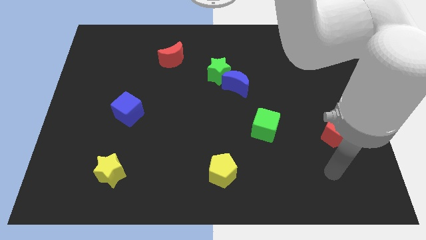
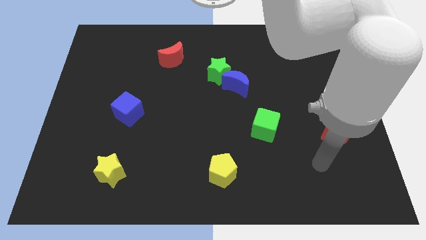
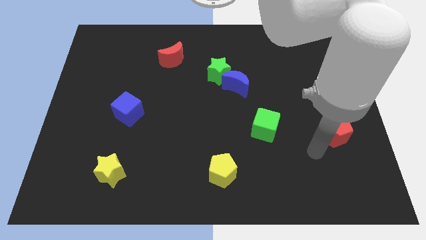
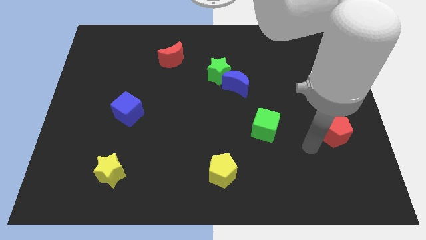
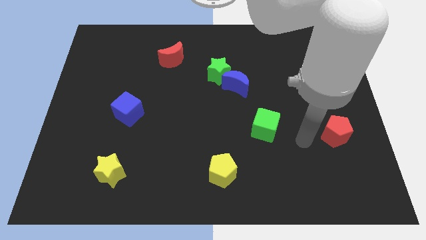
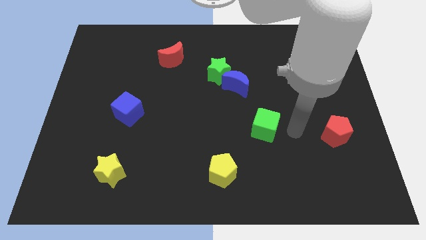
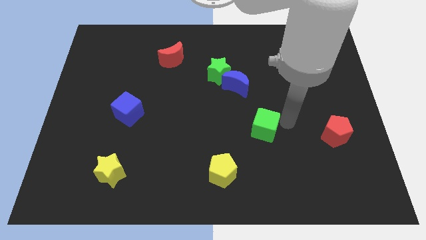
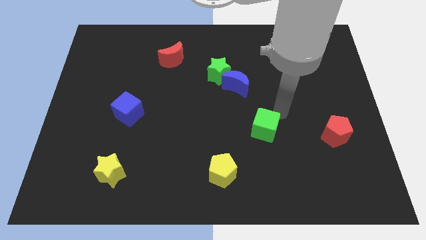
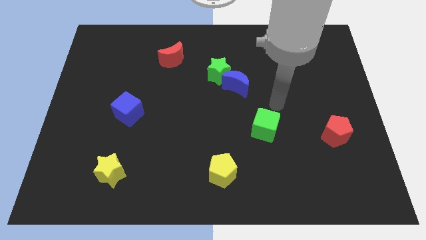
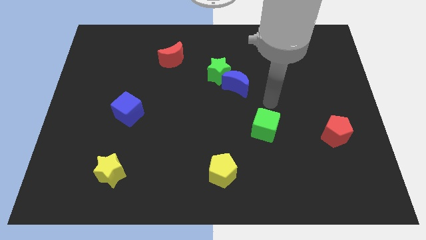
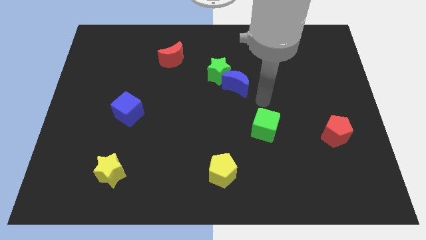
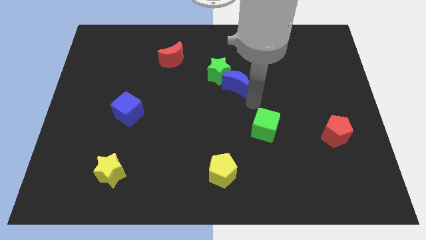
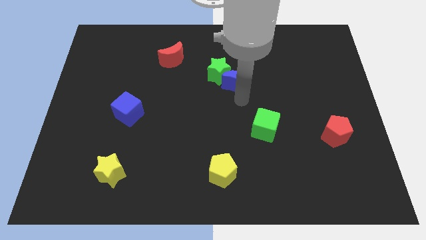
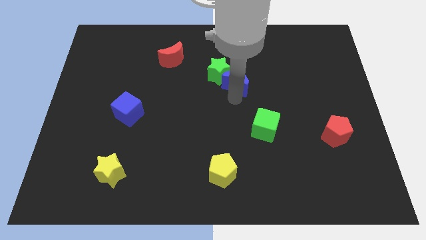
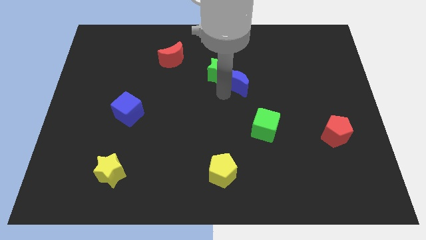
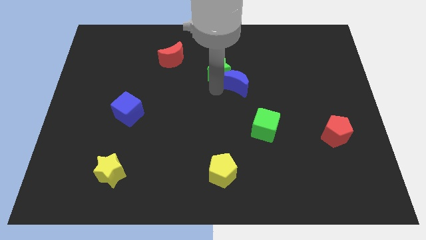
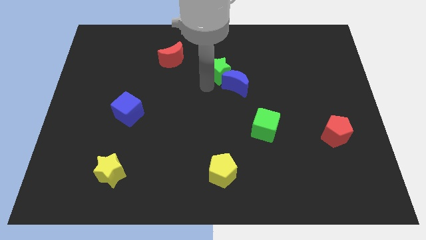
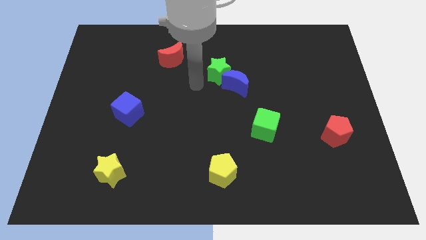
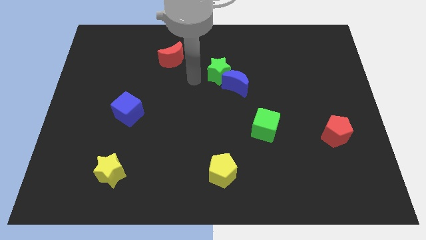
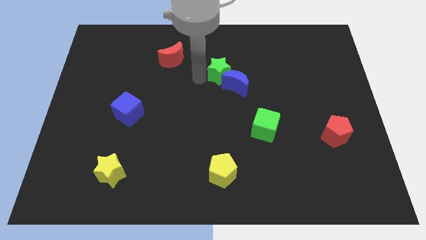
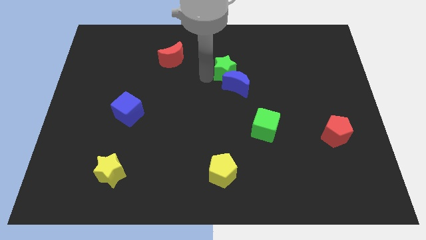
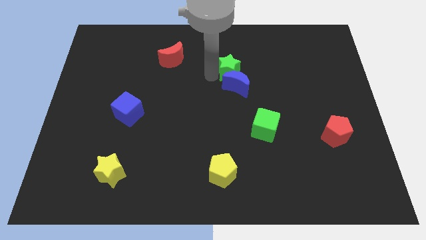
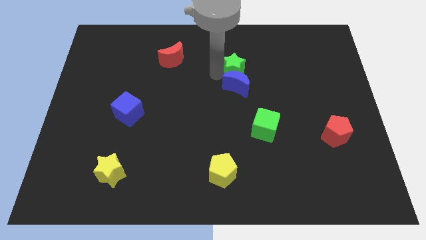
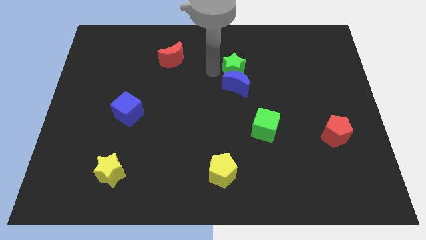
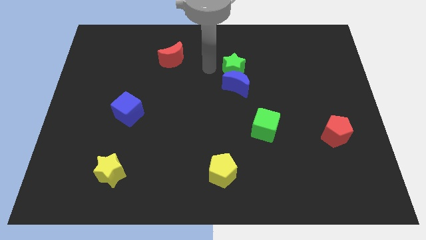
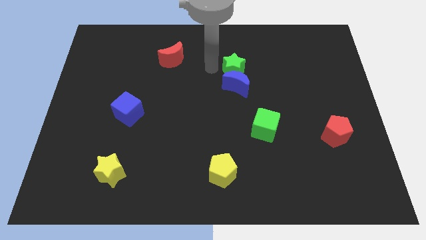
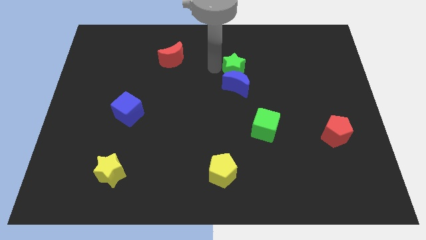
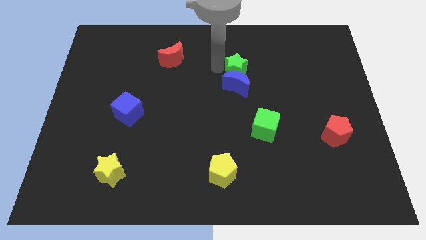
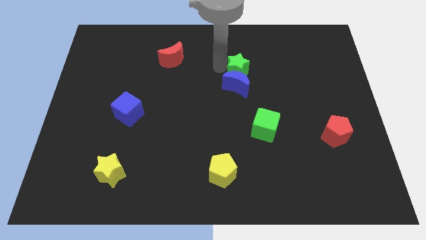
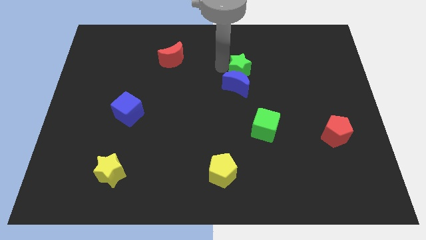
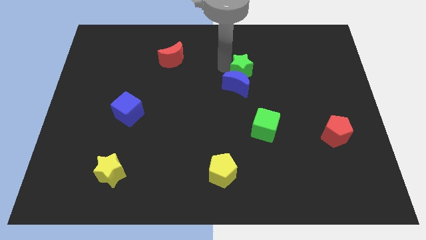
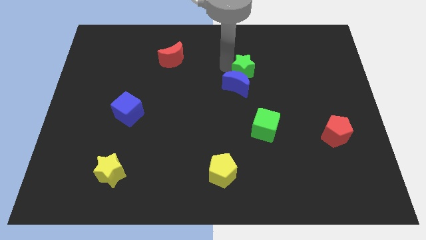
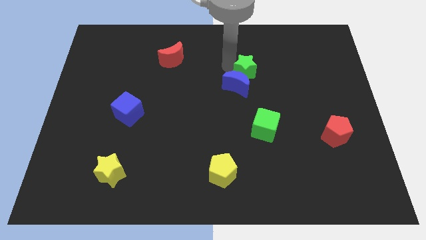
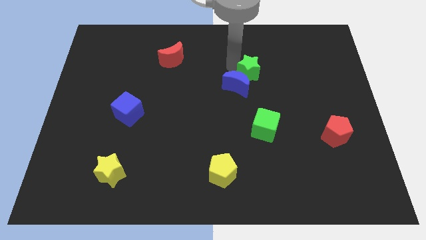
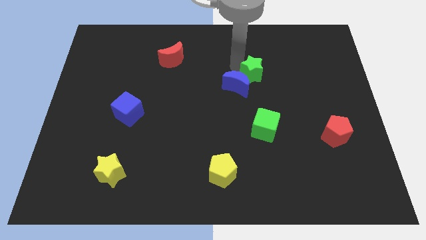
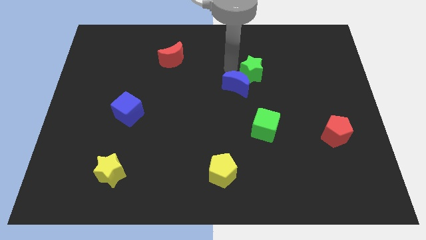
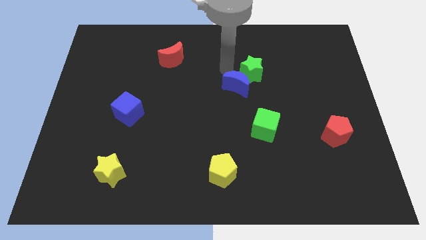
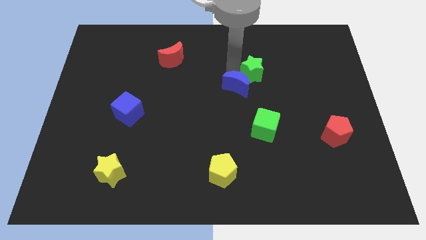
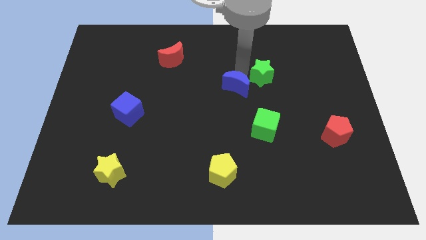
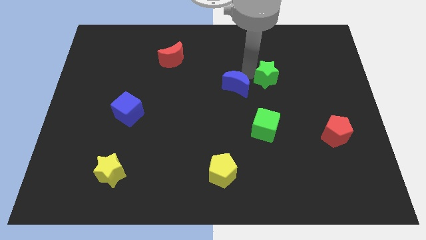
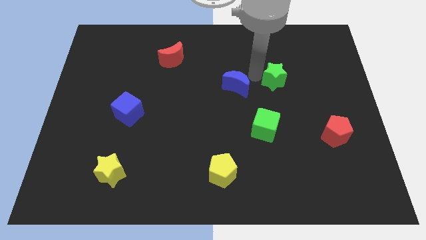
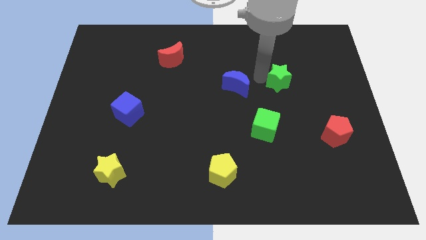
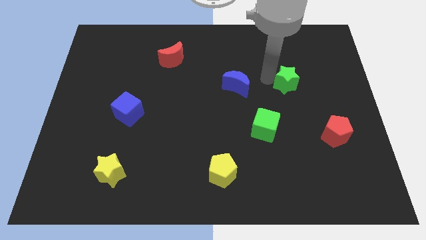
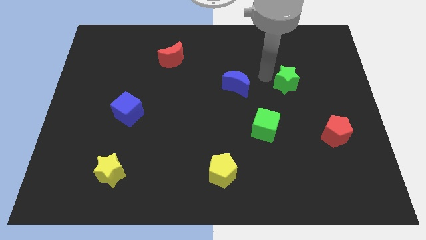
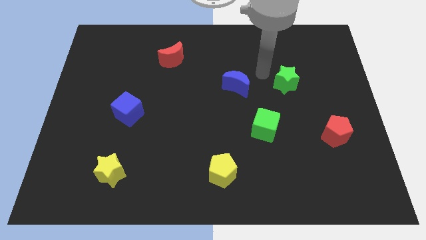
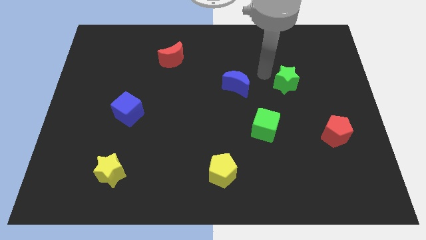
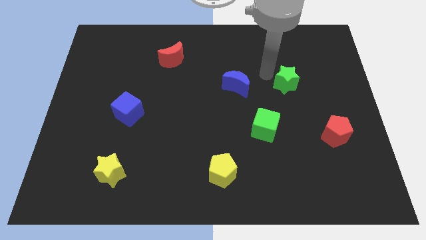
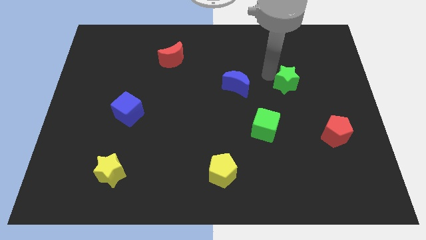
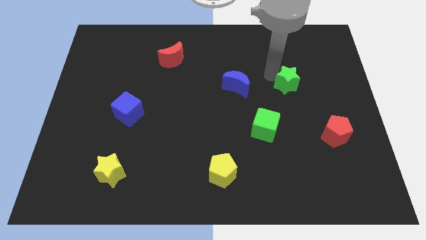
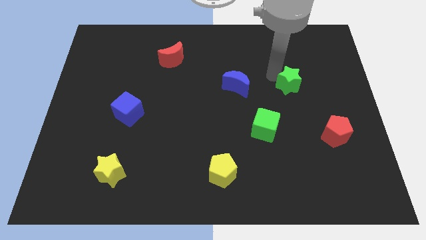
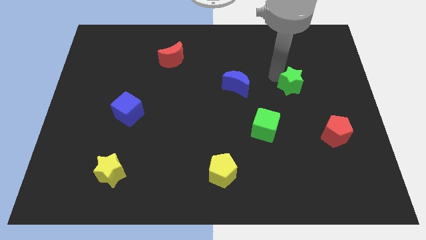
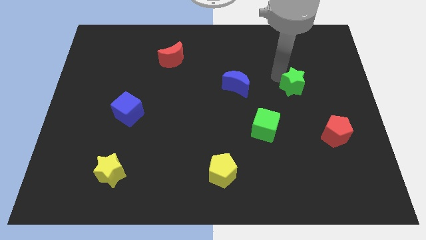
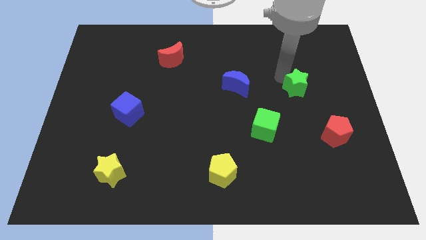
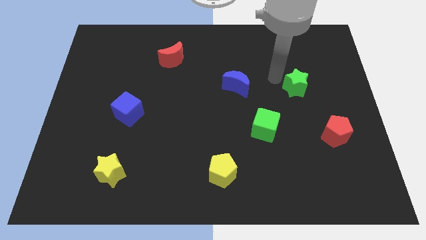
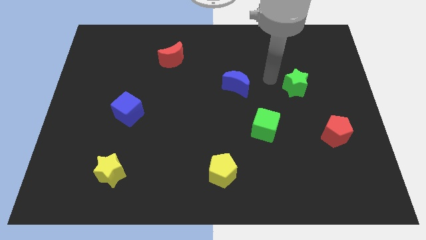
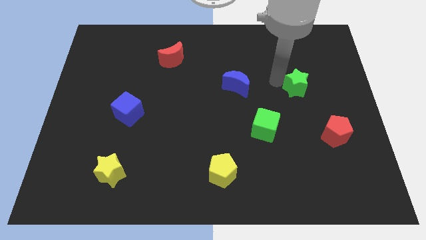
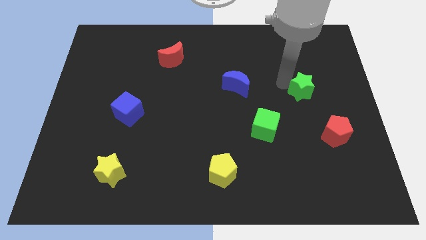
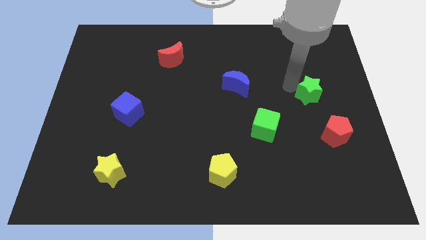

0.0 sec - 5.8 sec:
put the green star to the top of the red pentagon

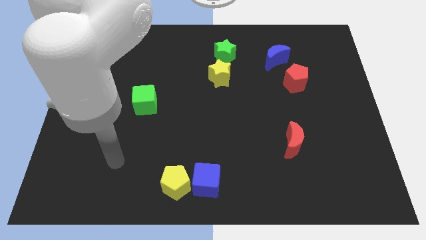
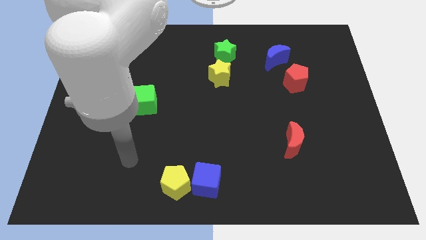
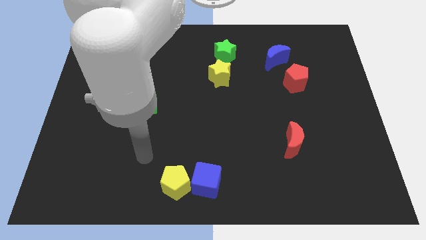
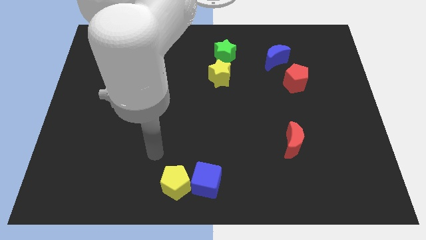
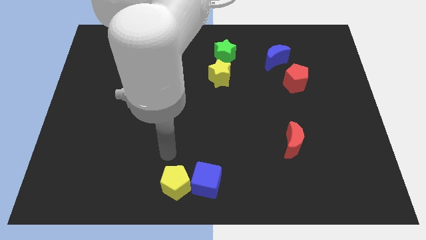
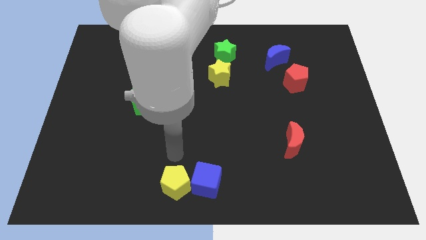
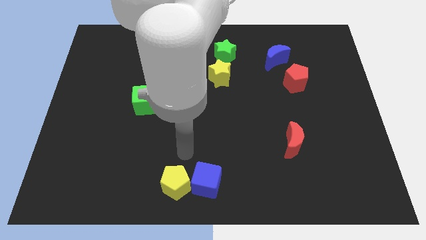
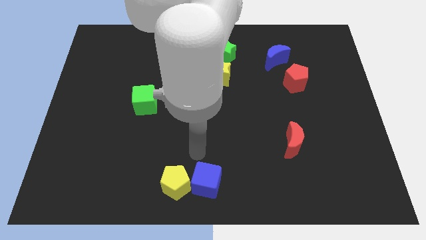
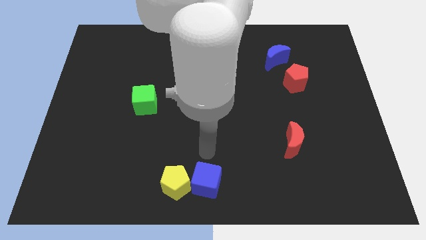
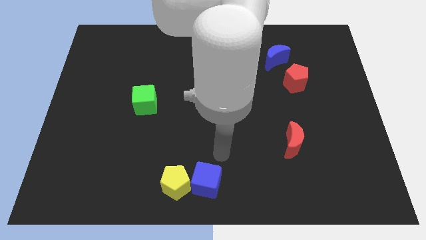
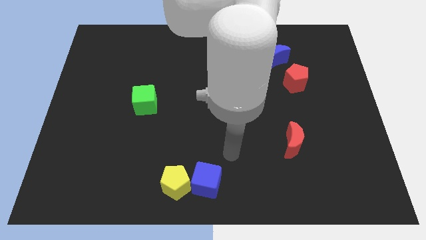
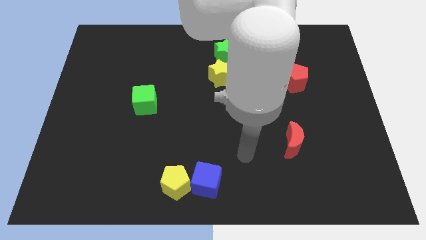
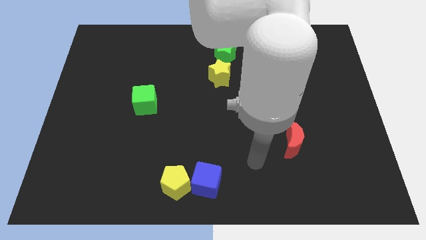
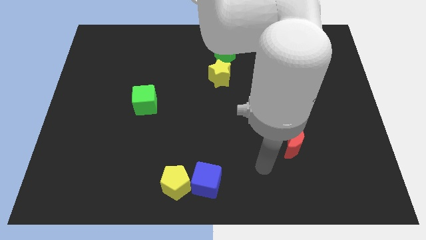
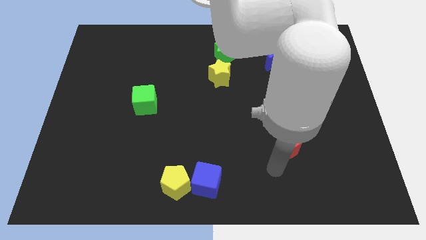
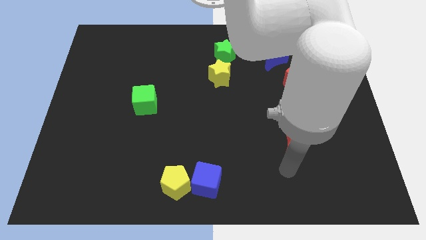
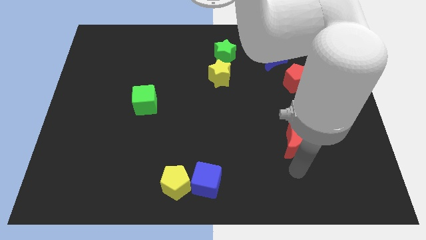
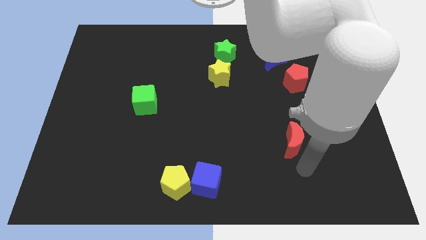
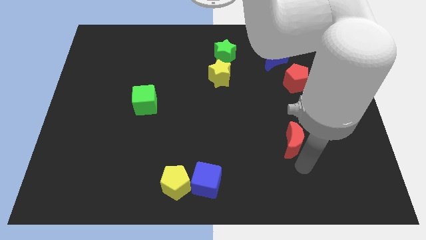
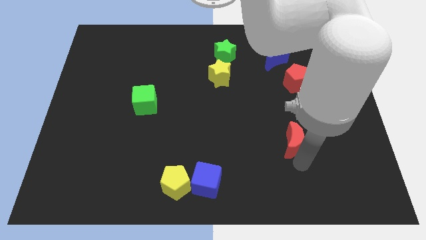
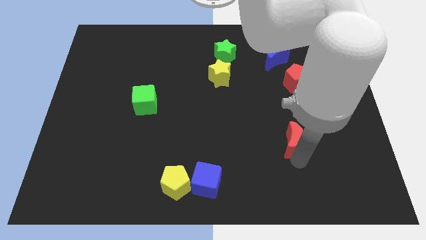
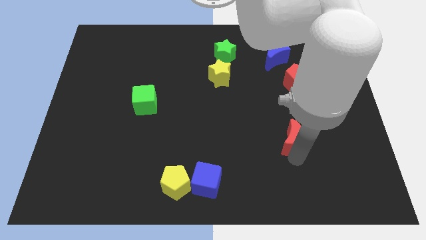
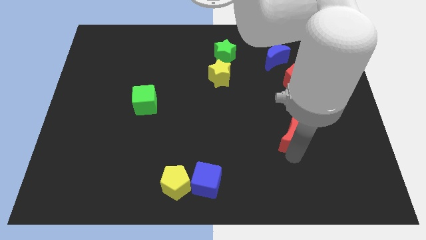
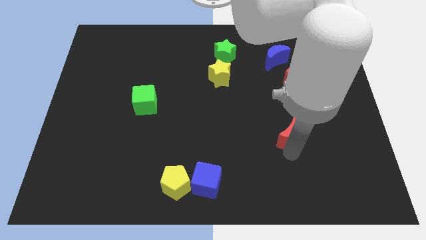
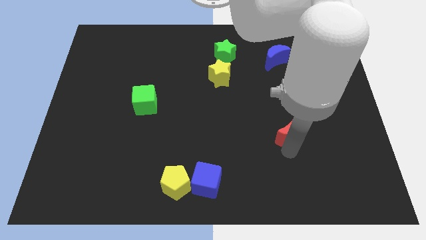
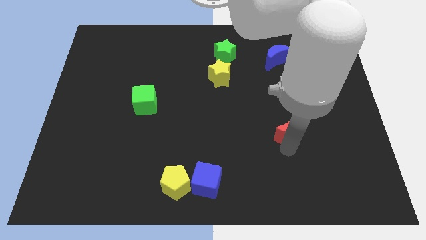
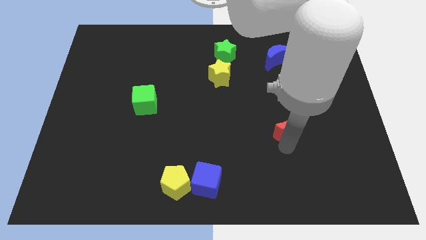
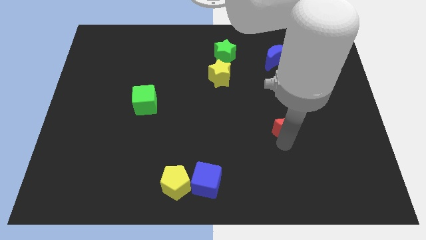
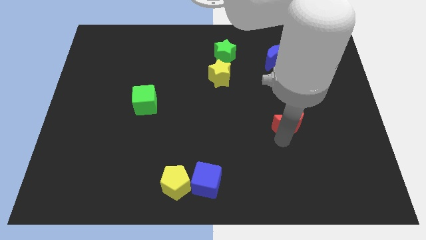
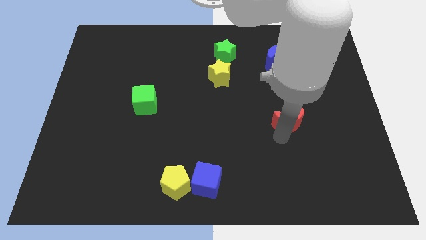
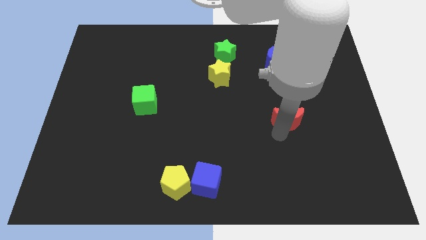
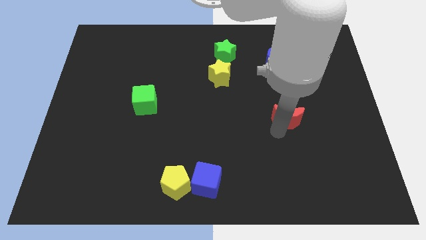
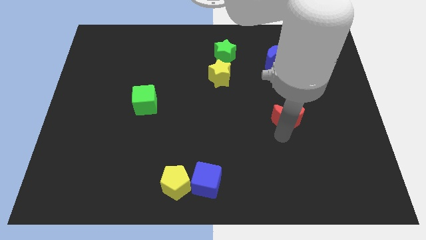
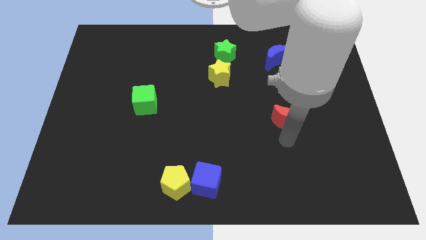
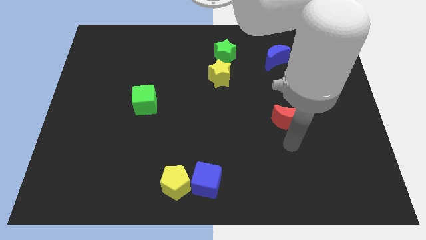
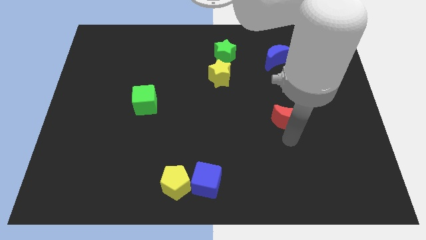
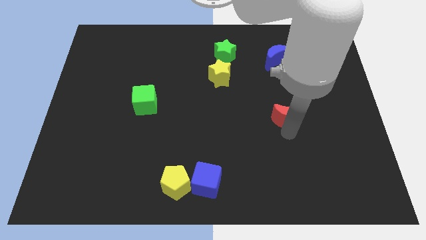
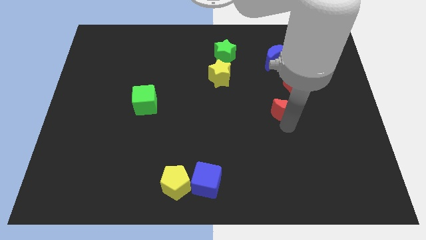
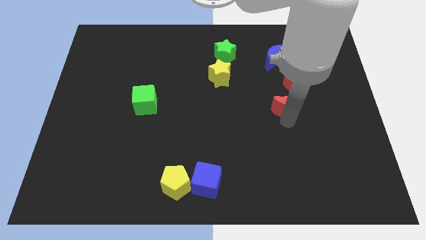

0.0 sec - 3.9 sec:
slide the red moon below the blue moon
